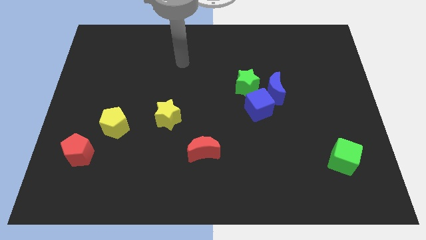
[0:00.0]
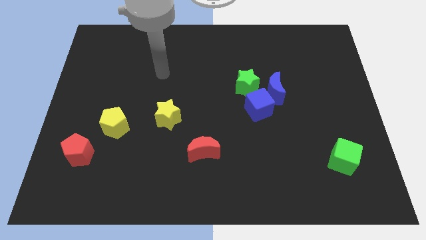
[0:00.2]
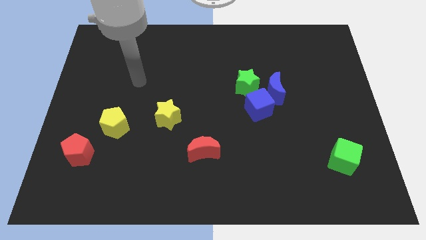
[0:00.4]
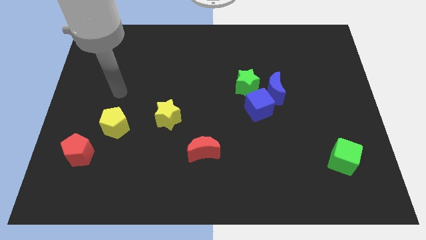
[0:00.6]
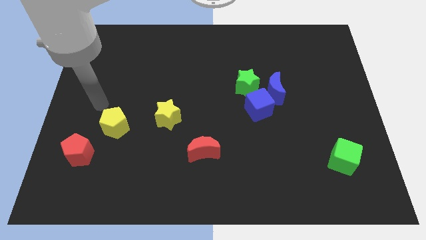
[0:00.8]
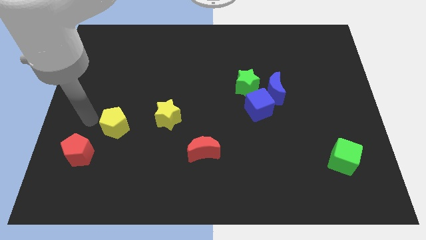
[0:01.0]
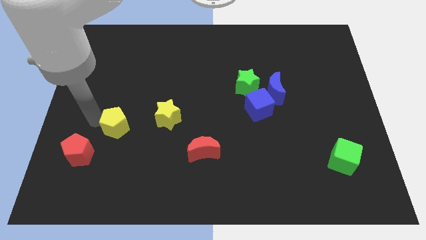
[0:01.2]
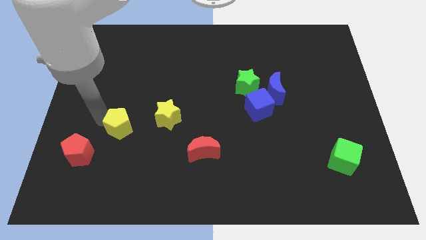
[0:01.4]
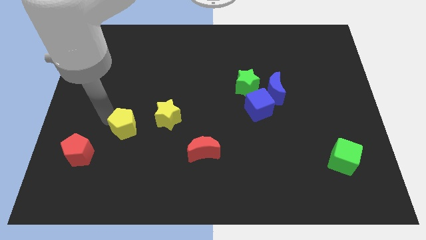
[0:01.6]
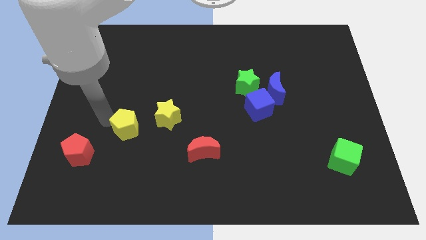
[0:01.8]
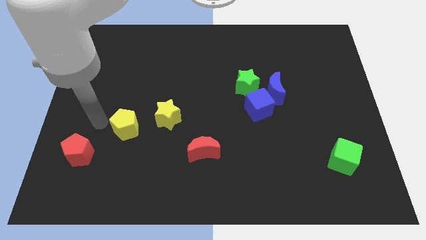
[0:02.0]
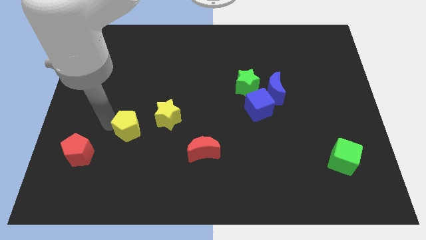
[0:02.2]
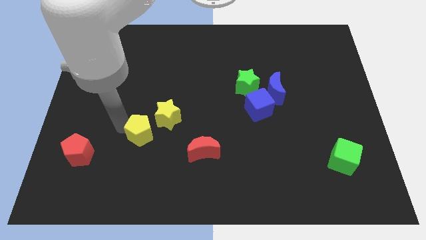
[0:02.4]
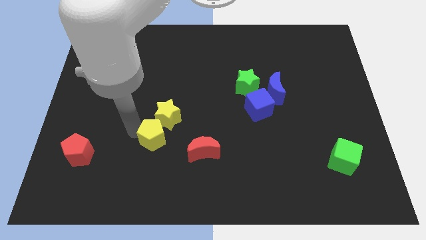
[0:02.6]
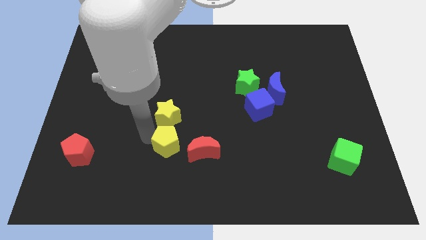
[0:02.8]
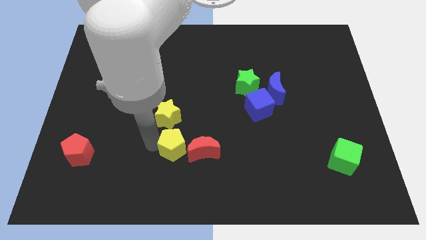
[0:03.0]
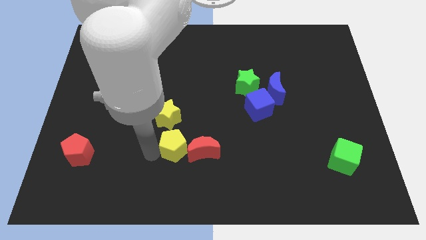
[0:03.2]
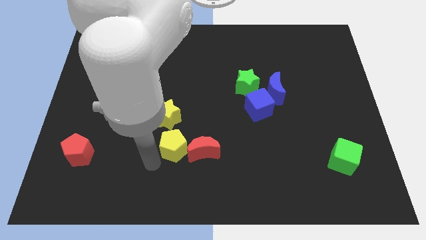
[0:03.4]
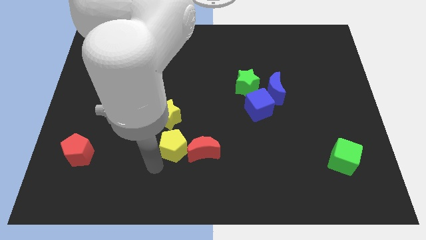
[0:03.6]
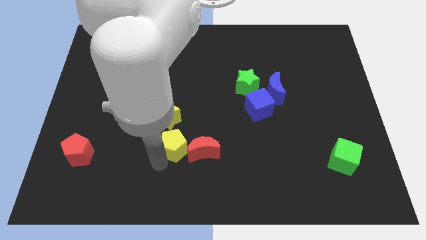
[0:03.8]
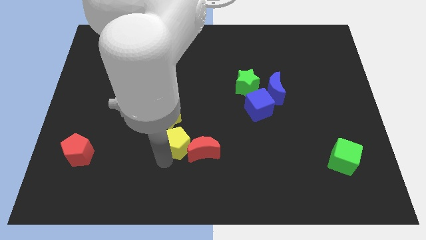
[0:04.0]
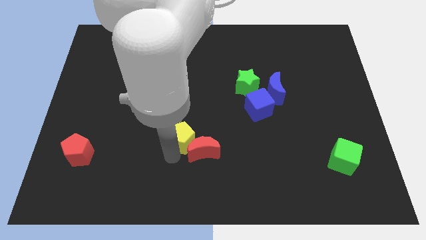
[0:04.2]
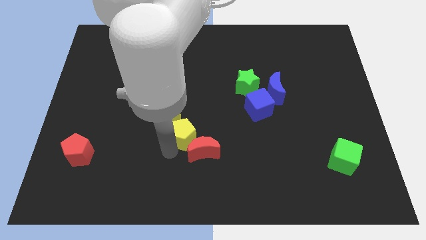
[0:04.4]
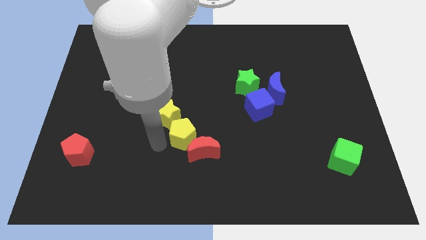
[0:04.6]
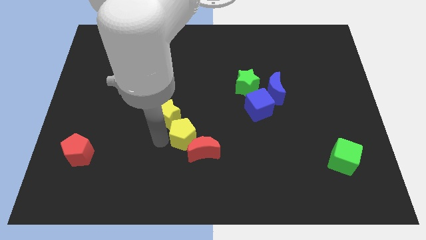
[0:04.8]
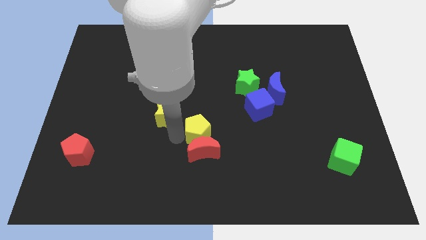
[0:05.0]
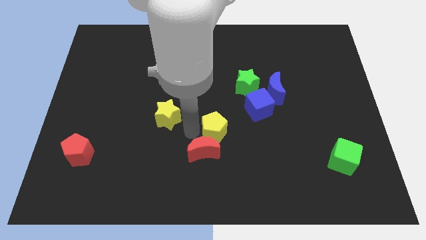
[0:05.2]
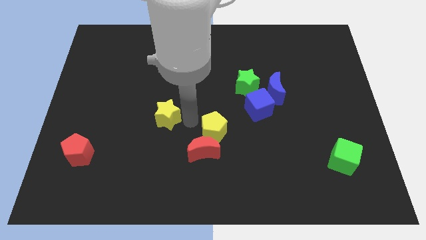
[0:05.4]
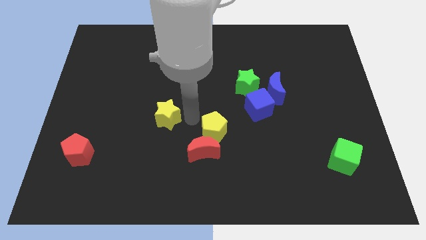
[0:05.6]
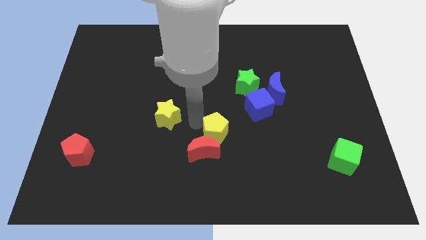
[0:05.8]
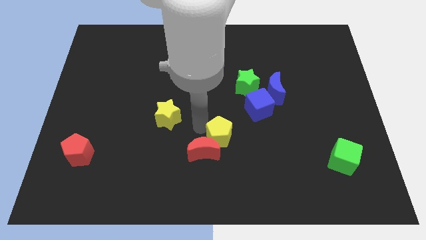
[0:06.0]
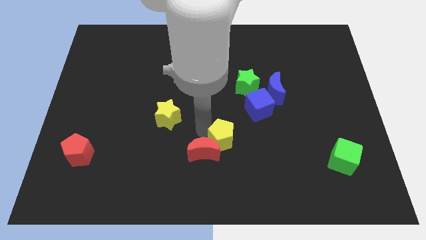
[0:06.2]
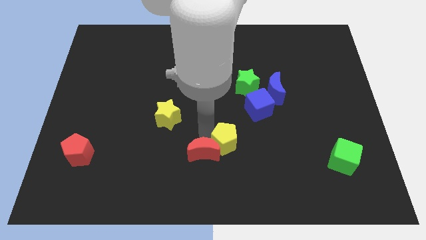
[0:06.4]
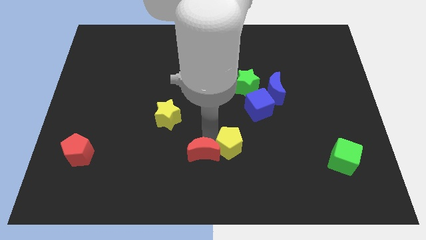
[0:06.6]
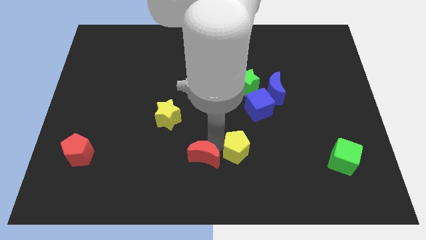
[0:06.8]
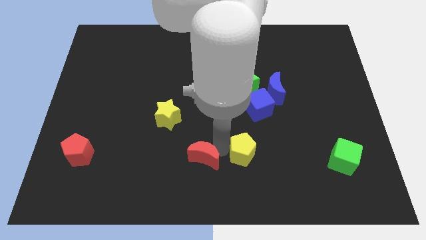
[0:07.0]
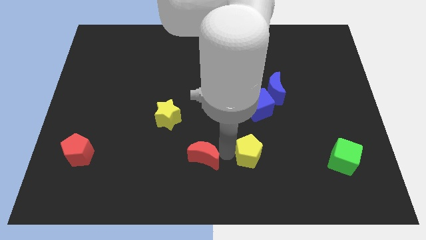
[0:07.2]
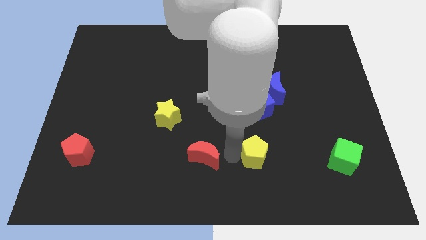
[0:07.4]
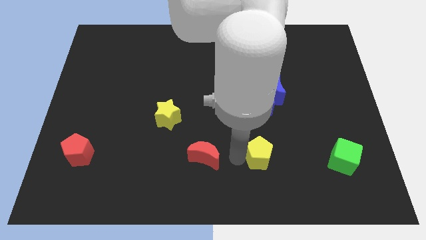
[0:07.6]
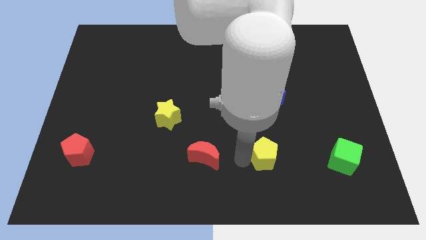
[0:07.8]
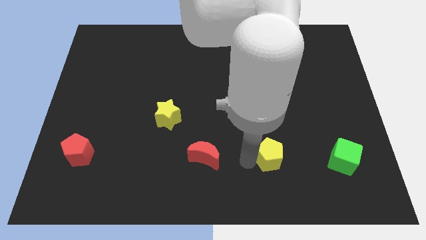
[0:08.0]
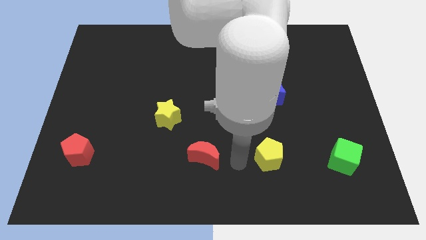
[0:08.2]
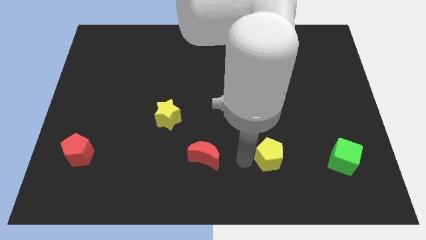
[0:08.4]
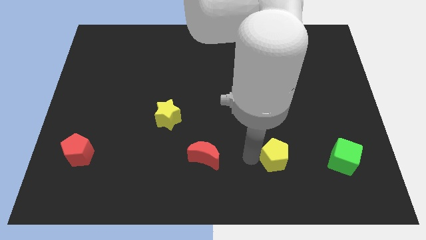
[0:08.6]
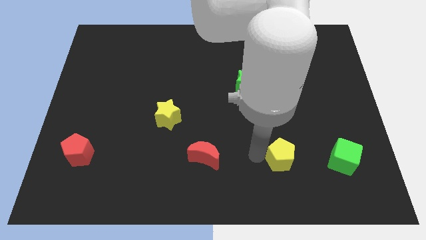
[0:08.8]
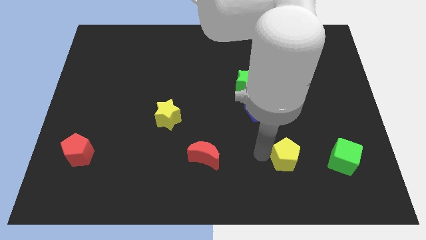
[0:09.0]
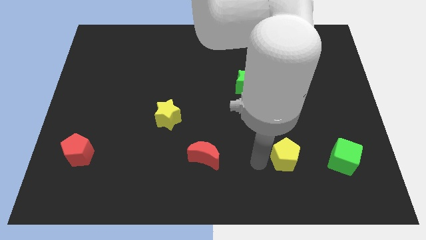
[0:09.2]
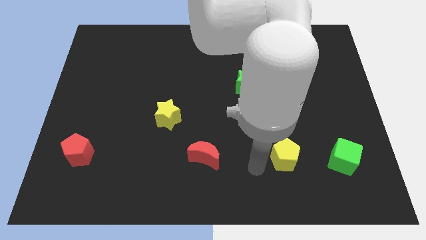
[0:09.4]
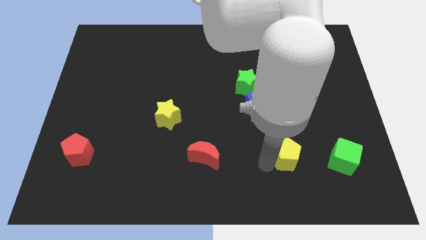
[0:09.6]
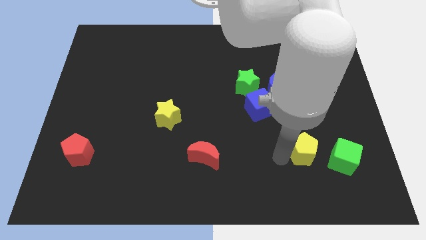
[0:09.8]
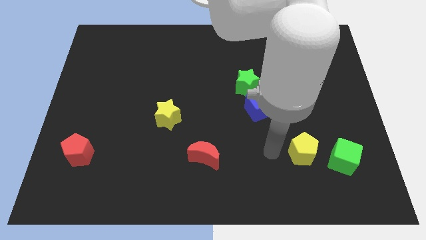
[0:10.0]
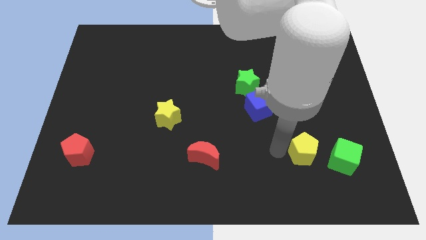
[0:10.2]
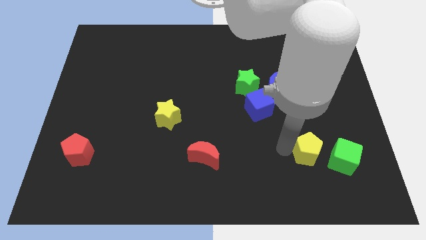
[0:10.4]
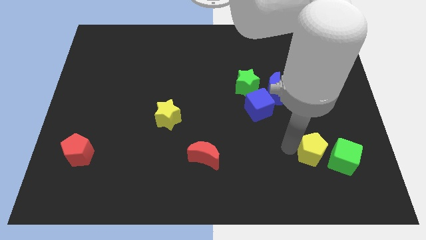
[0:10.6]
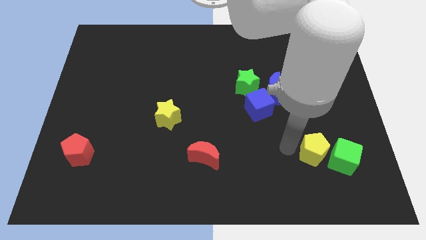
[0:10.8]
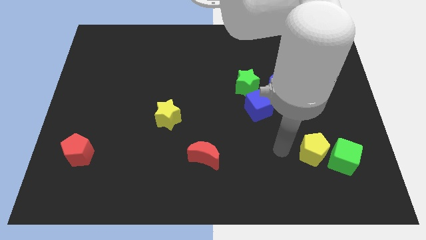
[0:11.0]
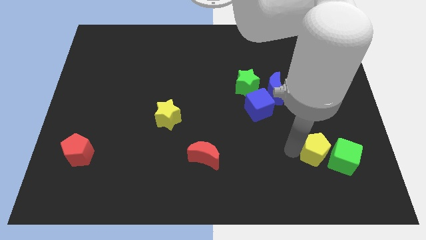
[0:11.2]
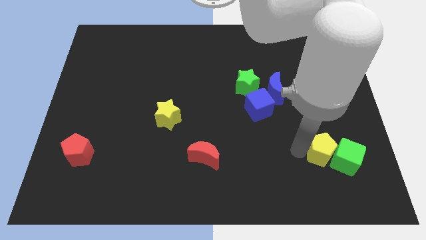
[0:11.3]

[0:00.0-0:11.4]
push the yellow pentagon to the green cube

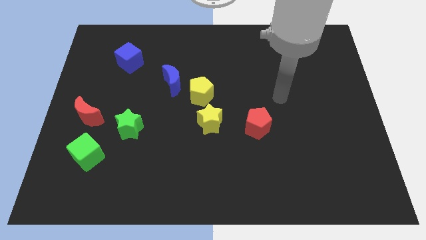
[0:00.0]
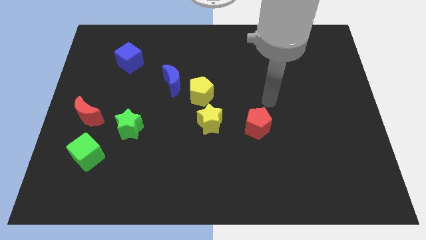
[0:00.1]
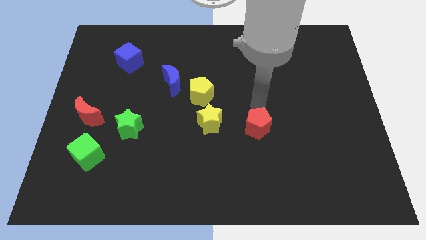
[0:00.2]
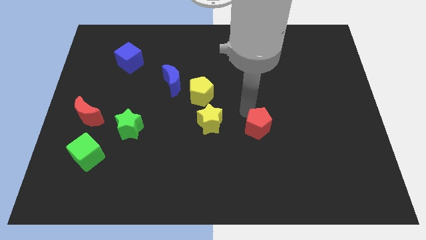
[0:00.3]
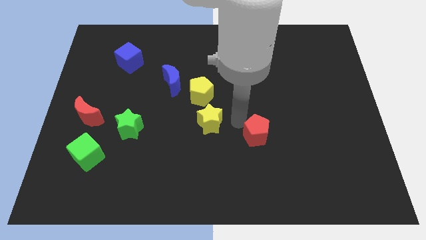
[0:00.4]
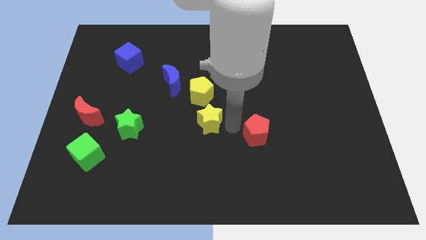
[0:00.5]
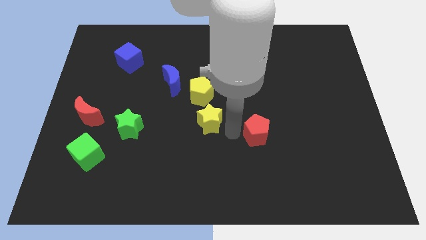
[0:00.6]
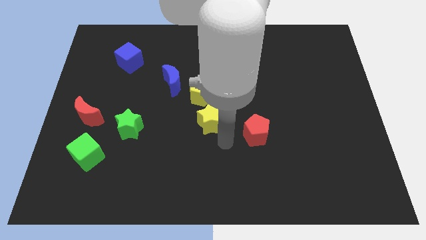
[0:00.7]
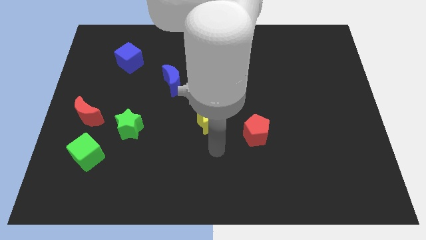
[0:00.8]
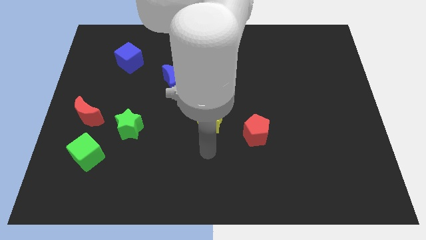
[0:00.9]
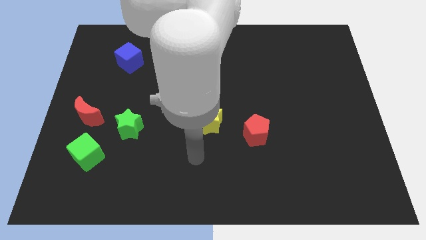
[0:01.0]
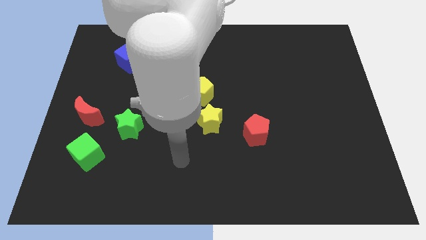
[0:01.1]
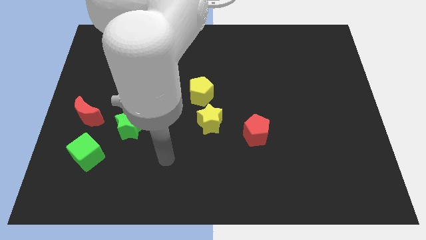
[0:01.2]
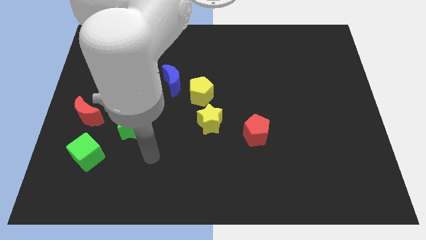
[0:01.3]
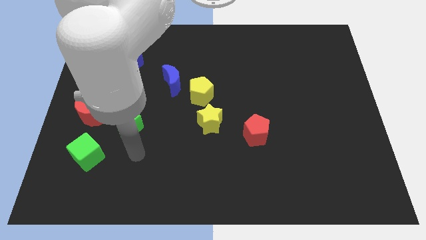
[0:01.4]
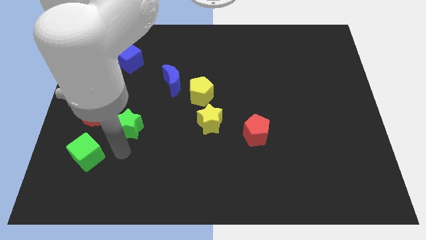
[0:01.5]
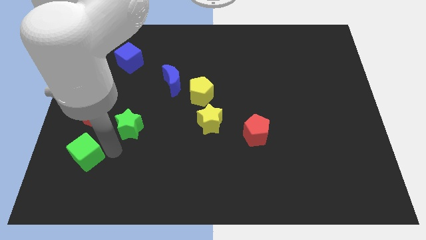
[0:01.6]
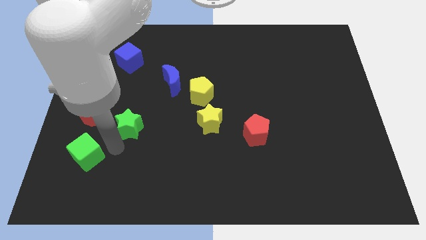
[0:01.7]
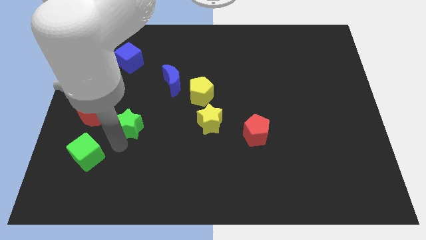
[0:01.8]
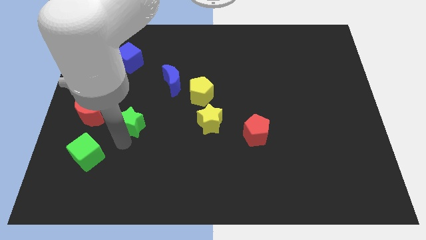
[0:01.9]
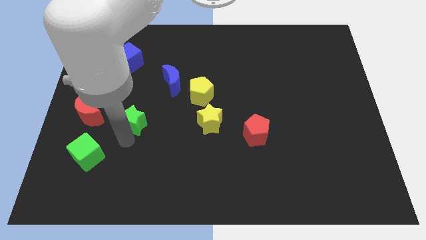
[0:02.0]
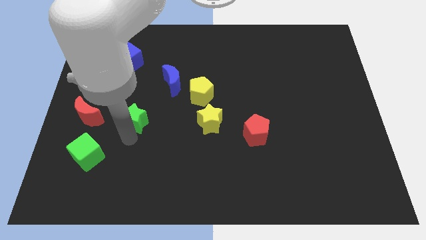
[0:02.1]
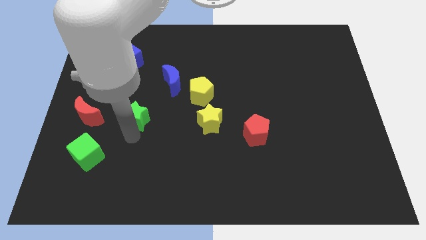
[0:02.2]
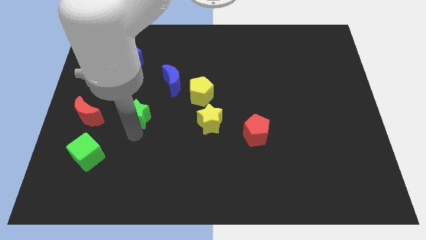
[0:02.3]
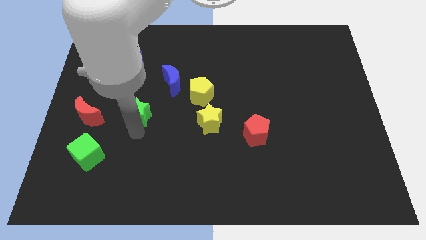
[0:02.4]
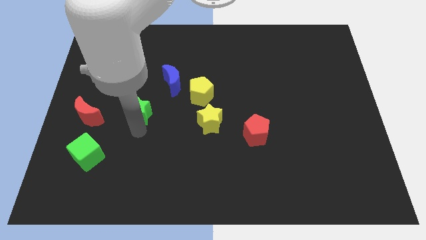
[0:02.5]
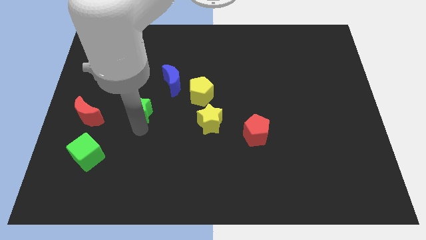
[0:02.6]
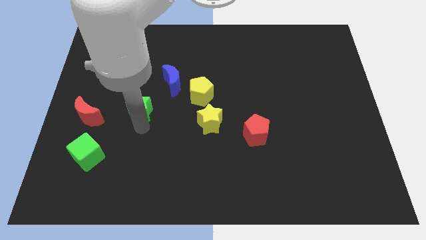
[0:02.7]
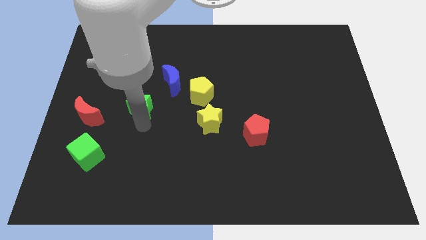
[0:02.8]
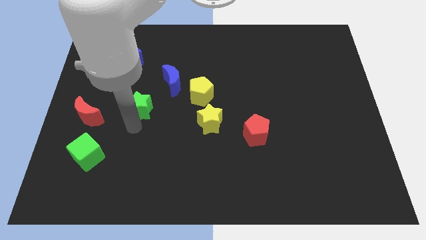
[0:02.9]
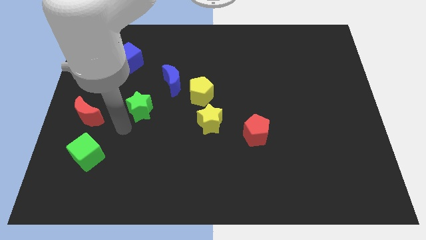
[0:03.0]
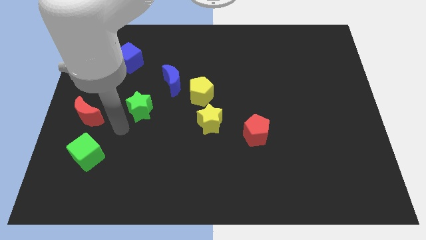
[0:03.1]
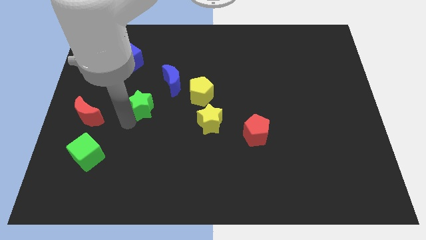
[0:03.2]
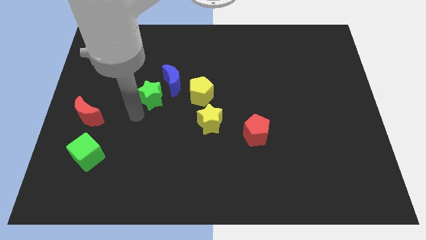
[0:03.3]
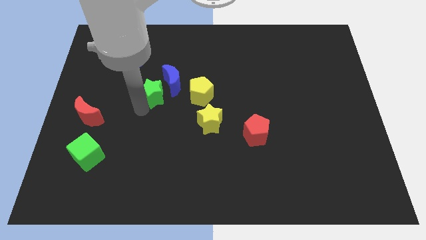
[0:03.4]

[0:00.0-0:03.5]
move the green star close to the blue moon
